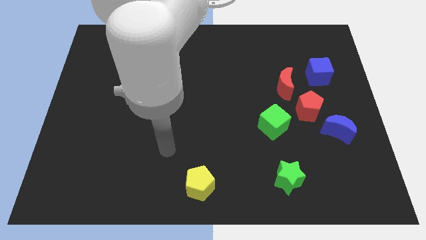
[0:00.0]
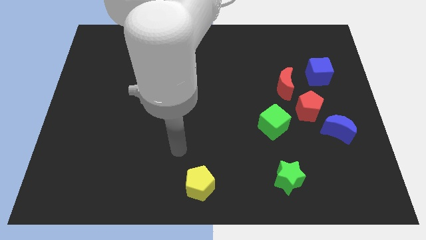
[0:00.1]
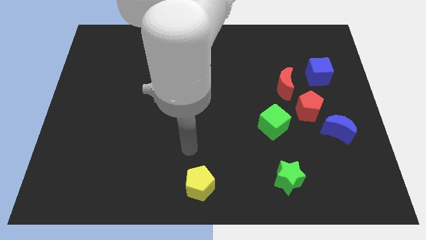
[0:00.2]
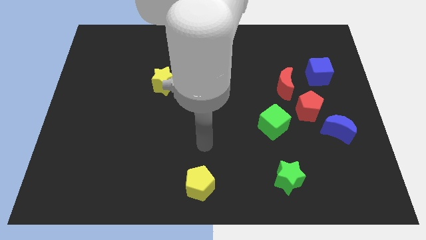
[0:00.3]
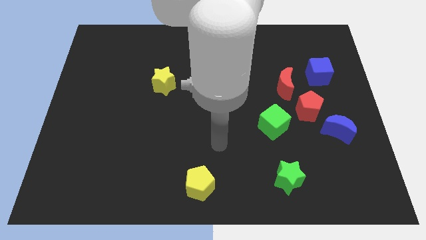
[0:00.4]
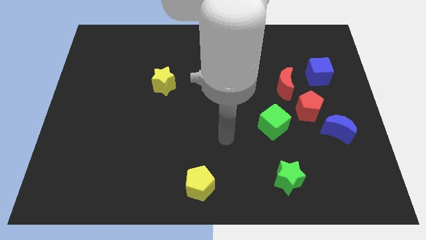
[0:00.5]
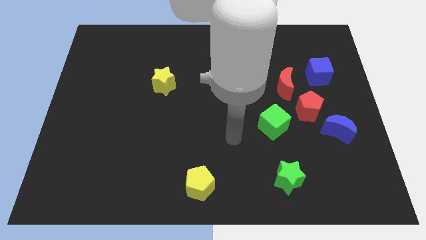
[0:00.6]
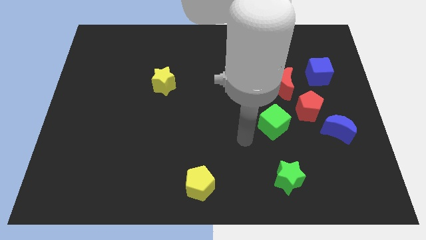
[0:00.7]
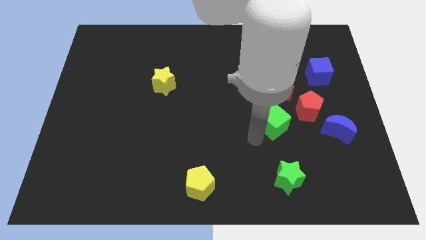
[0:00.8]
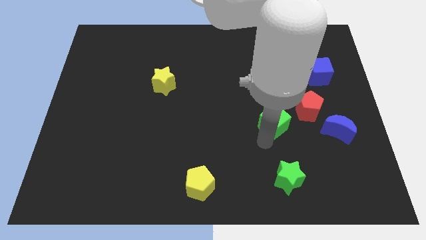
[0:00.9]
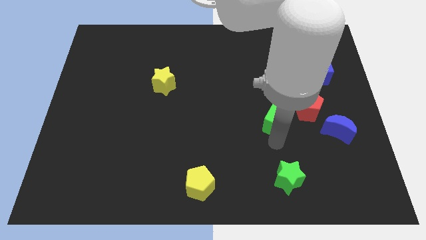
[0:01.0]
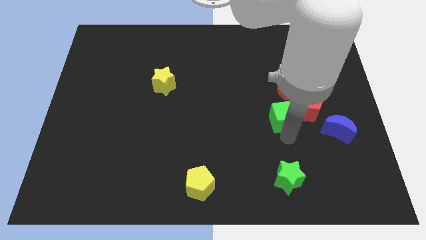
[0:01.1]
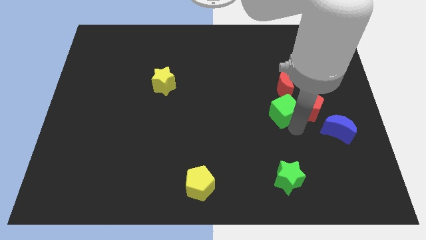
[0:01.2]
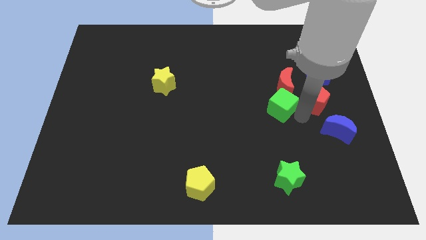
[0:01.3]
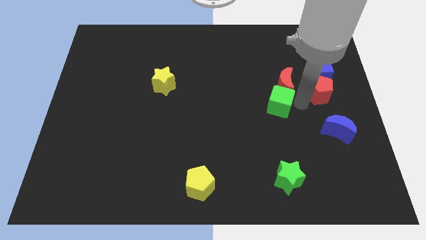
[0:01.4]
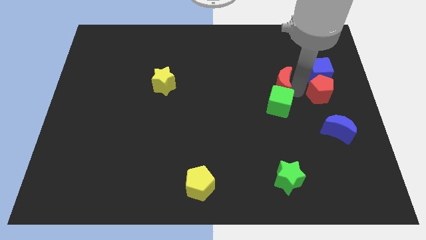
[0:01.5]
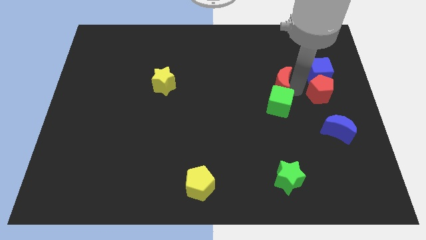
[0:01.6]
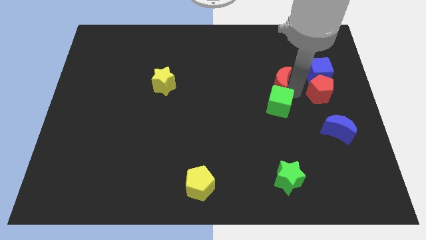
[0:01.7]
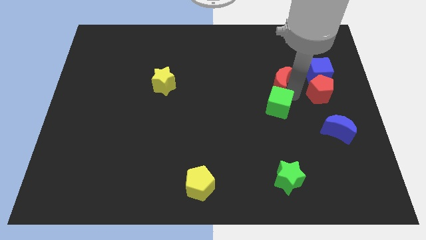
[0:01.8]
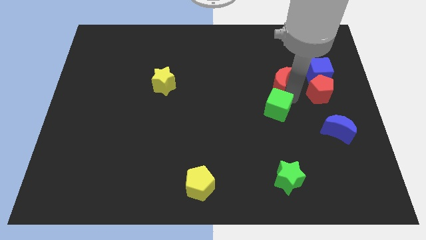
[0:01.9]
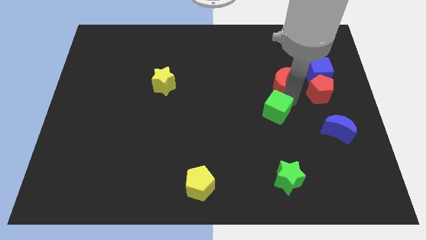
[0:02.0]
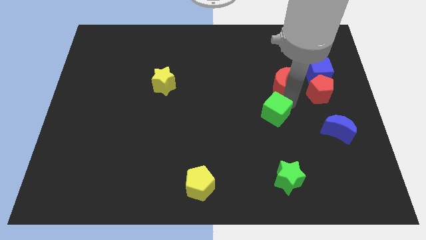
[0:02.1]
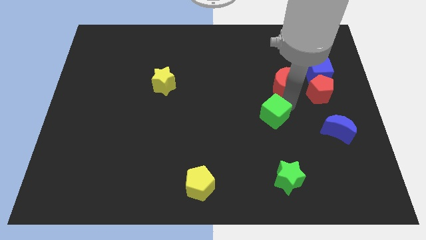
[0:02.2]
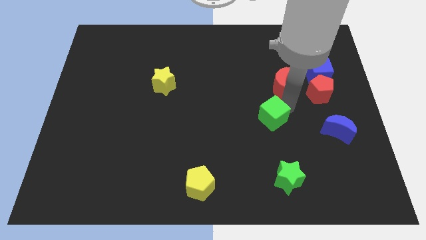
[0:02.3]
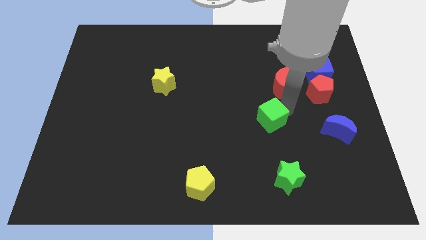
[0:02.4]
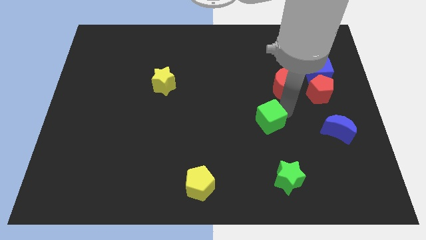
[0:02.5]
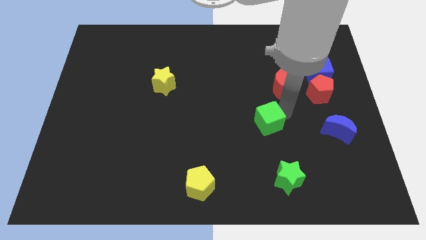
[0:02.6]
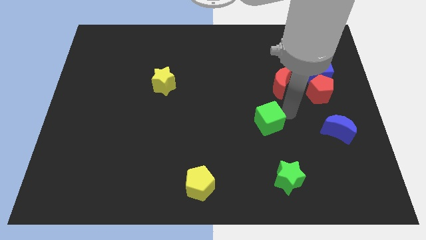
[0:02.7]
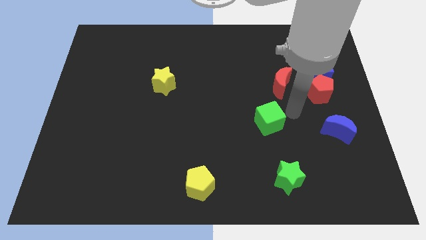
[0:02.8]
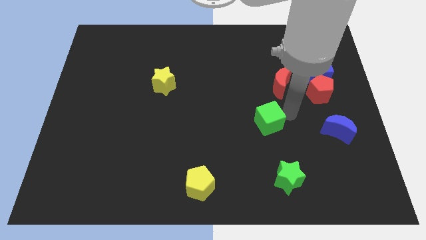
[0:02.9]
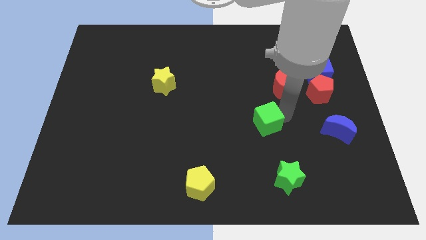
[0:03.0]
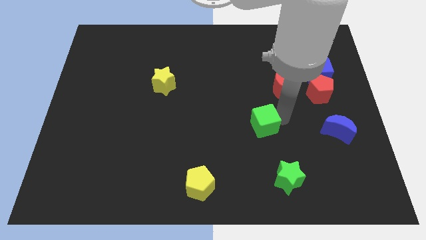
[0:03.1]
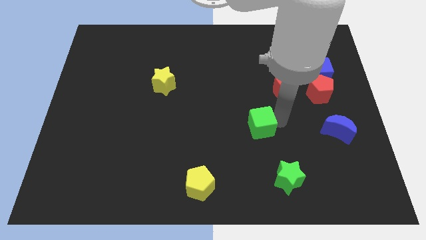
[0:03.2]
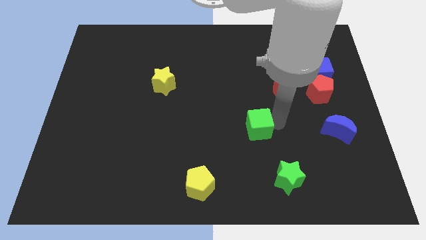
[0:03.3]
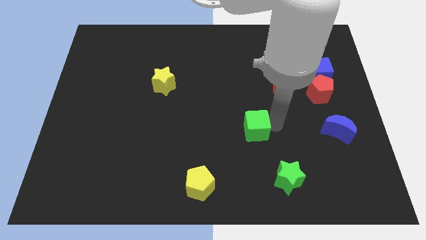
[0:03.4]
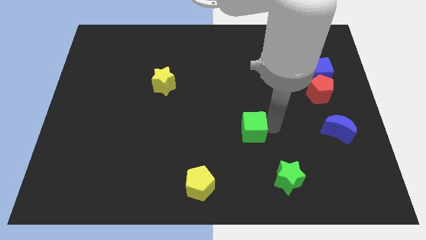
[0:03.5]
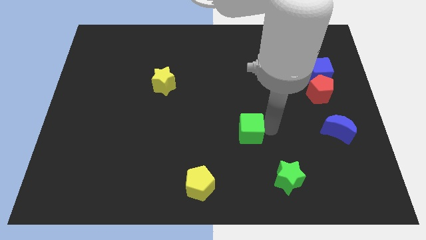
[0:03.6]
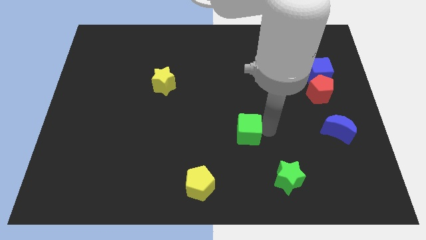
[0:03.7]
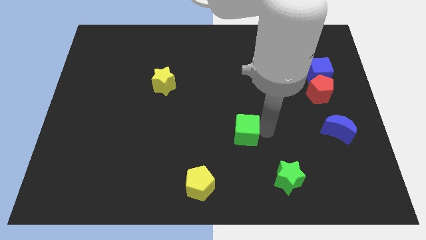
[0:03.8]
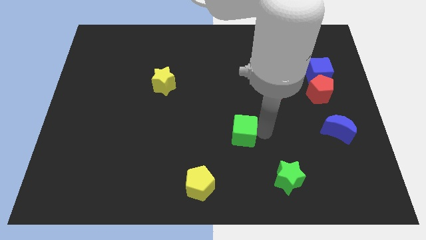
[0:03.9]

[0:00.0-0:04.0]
slide the green cube to the left a little

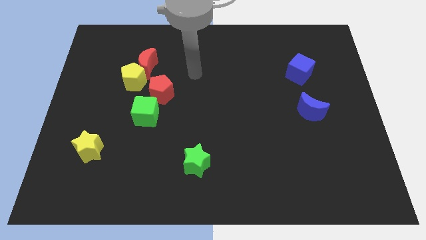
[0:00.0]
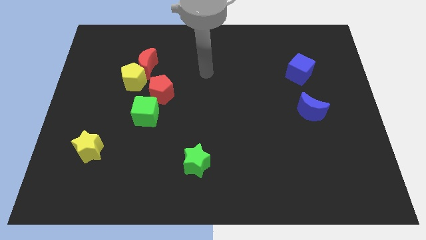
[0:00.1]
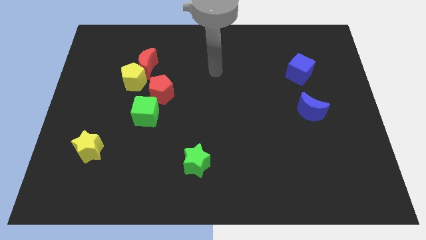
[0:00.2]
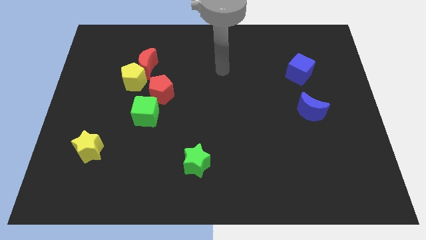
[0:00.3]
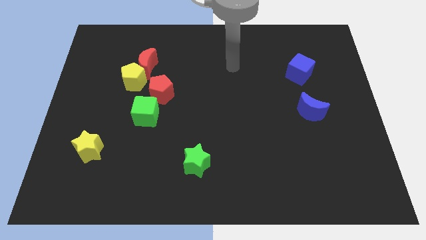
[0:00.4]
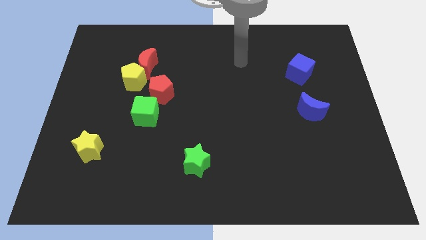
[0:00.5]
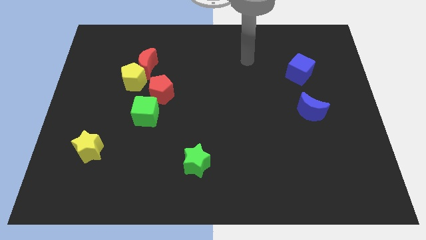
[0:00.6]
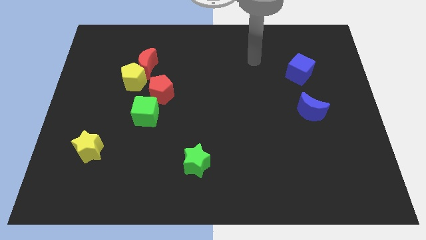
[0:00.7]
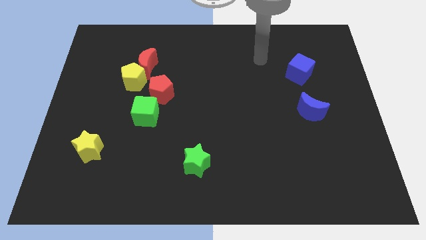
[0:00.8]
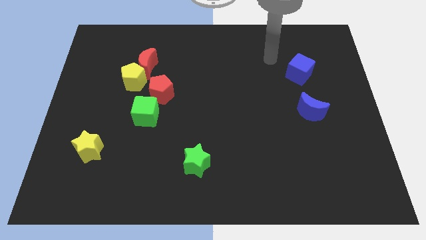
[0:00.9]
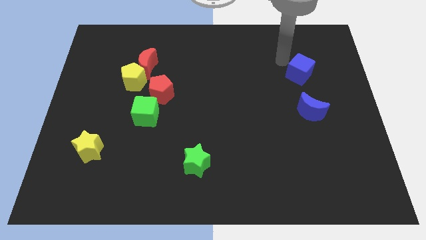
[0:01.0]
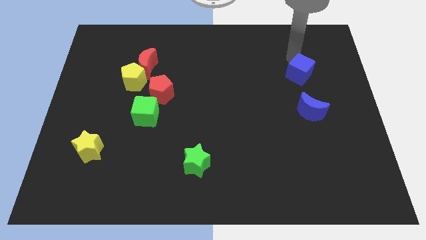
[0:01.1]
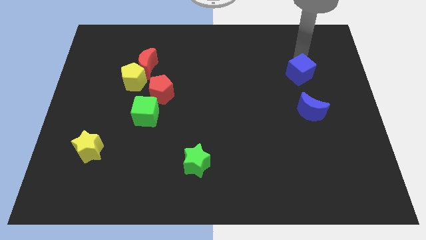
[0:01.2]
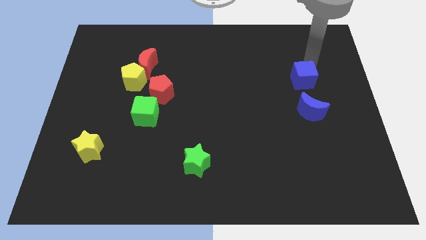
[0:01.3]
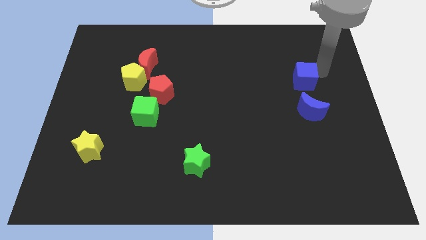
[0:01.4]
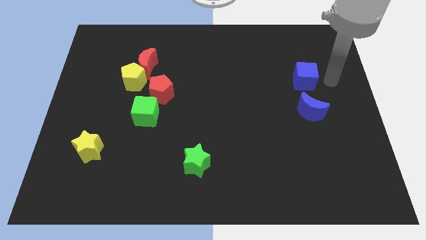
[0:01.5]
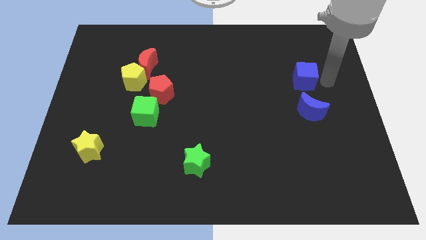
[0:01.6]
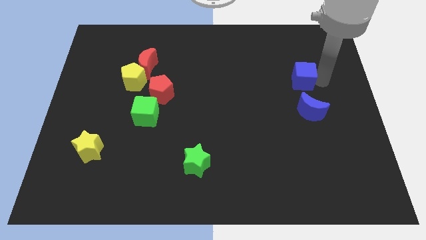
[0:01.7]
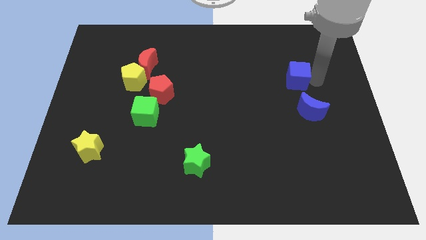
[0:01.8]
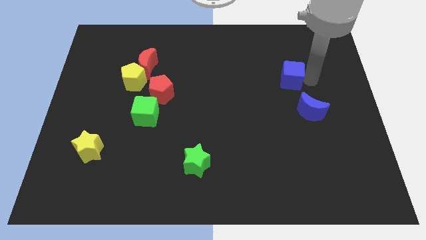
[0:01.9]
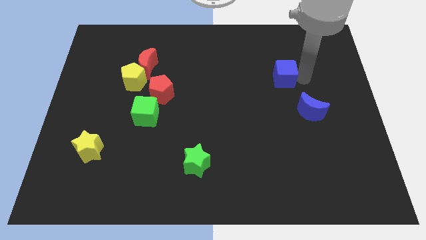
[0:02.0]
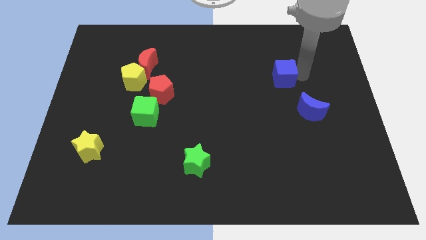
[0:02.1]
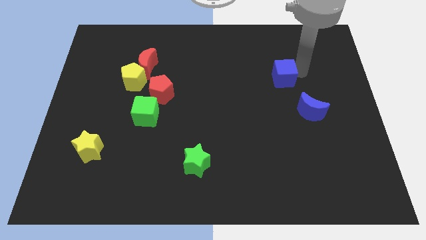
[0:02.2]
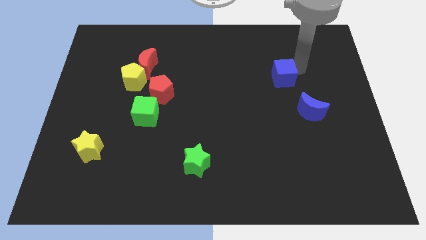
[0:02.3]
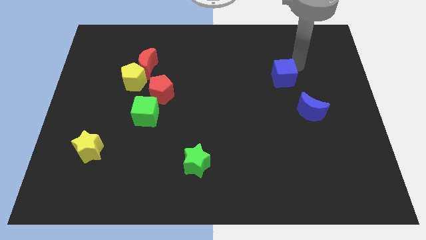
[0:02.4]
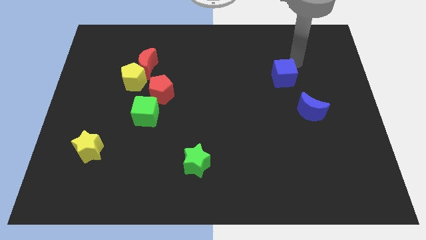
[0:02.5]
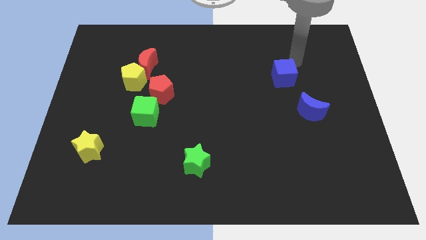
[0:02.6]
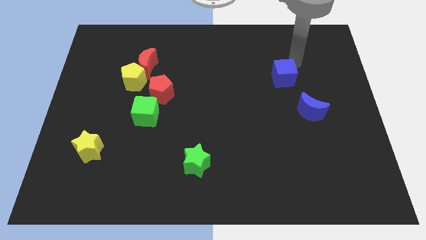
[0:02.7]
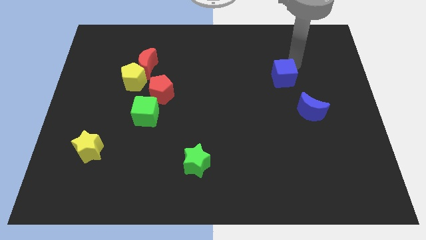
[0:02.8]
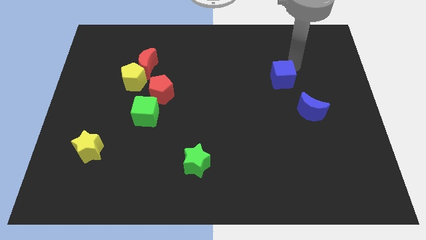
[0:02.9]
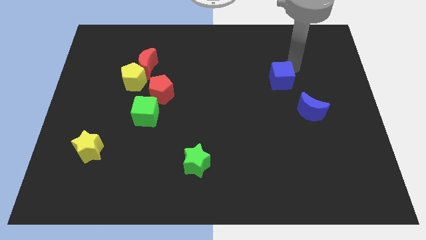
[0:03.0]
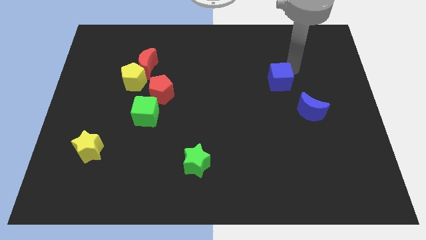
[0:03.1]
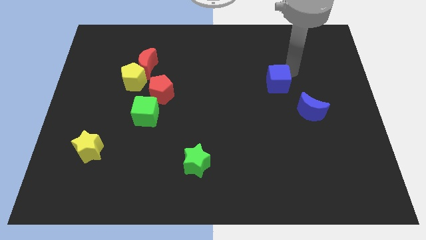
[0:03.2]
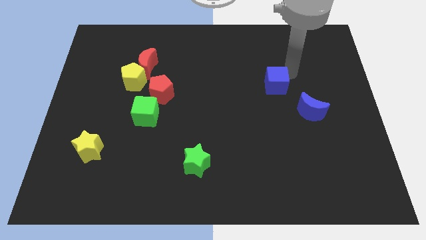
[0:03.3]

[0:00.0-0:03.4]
push the blue cube down and left diagonally slightly

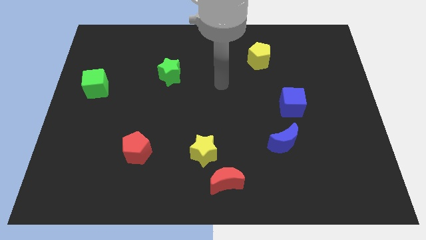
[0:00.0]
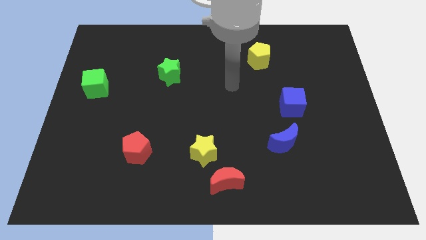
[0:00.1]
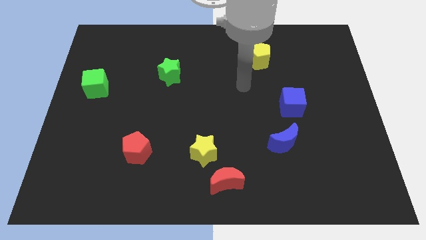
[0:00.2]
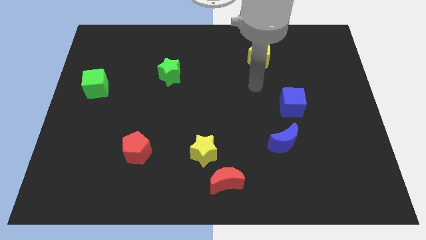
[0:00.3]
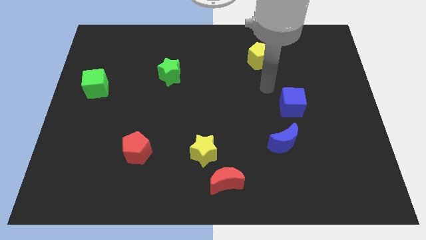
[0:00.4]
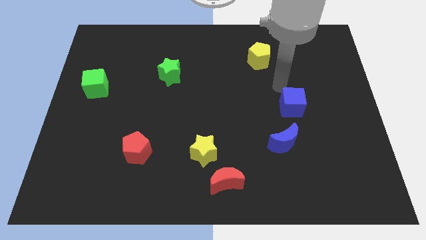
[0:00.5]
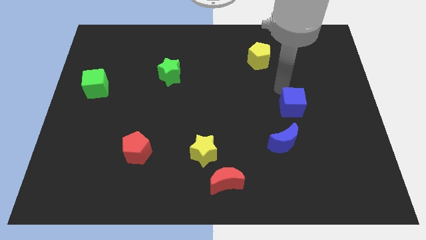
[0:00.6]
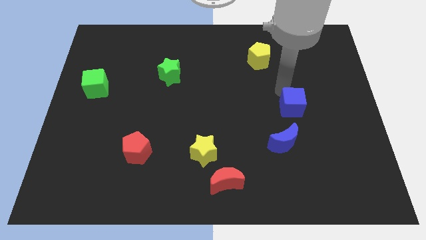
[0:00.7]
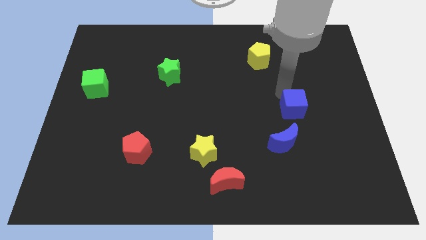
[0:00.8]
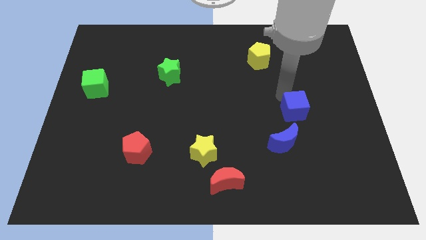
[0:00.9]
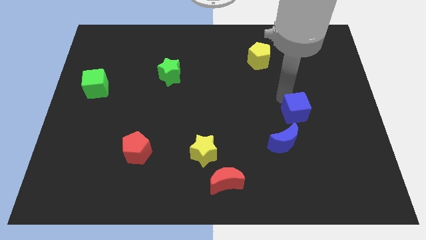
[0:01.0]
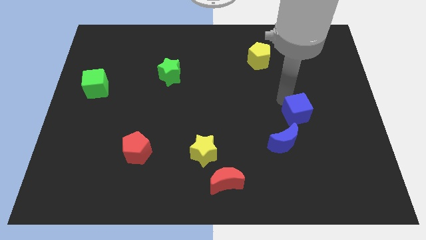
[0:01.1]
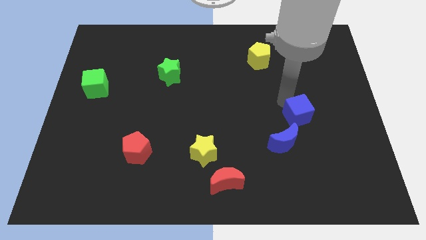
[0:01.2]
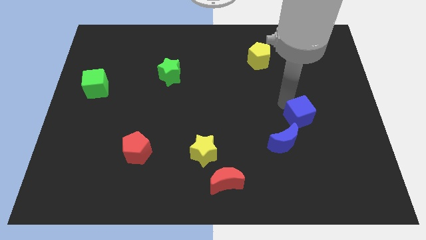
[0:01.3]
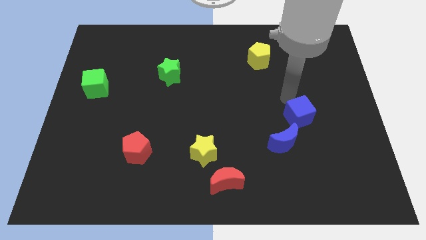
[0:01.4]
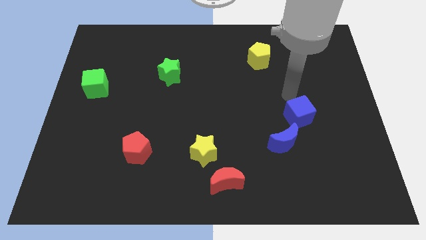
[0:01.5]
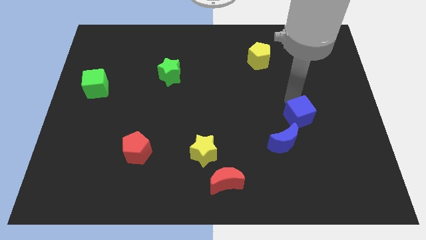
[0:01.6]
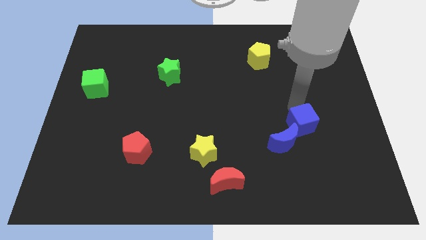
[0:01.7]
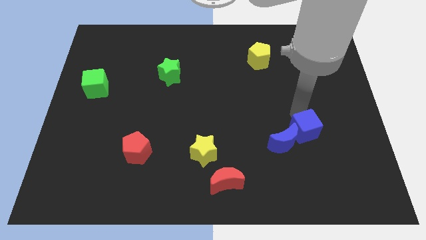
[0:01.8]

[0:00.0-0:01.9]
slide the blue cube downwards a little
